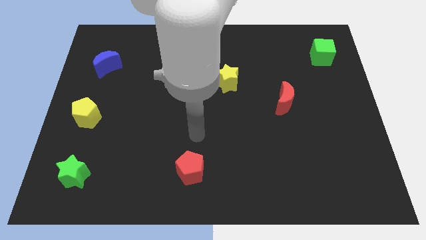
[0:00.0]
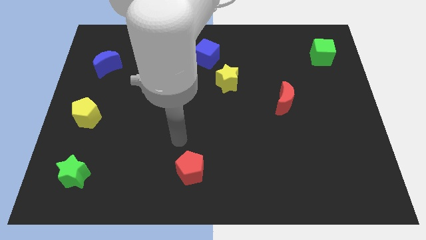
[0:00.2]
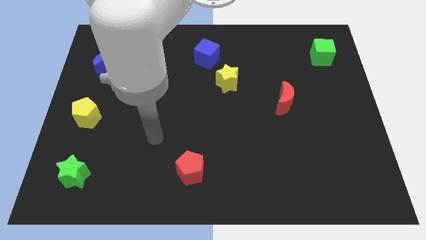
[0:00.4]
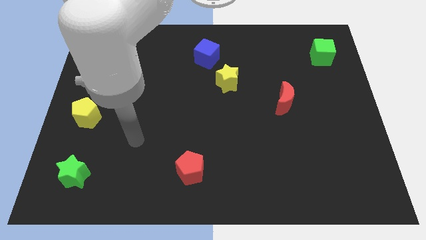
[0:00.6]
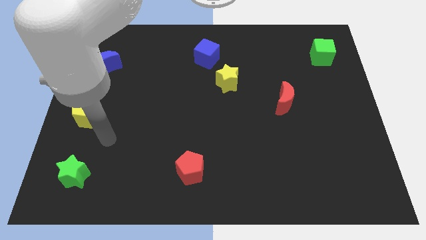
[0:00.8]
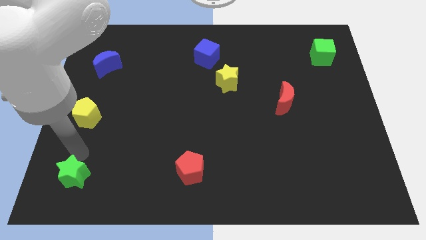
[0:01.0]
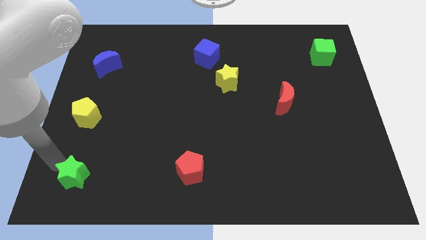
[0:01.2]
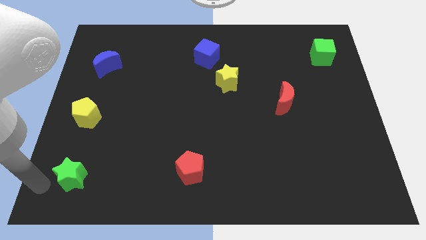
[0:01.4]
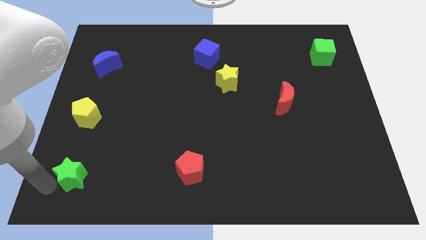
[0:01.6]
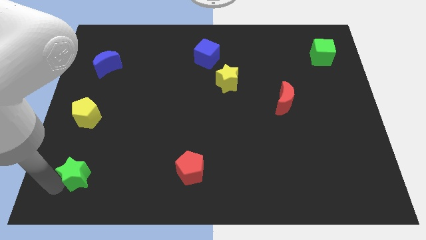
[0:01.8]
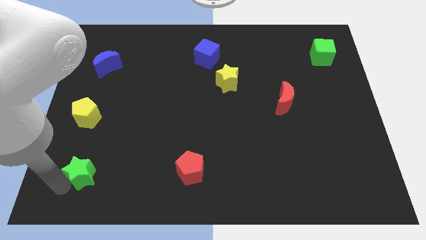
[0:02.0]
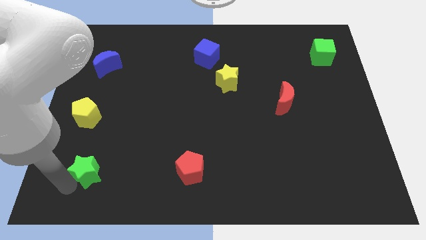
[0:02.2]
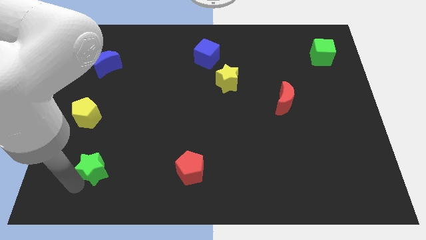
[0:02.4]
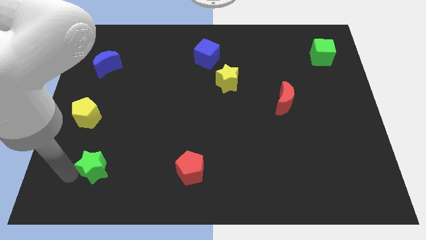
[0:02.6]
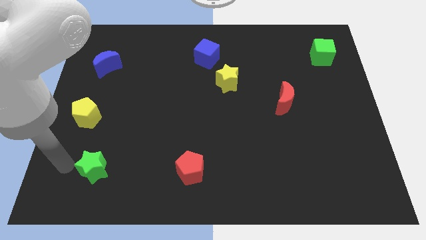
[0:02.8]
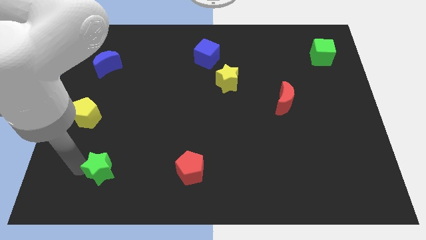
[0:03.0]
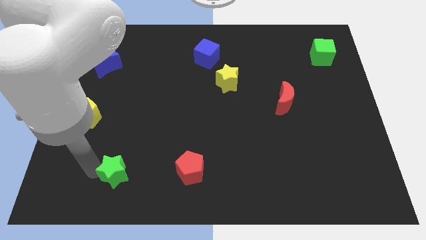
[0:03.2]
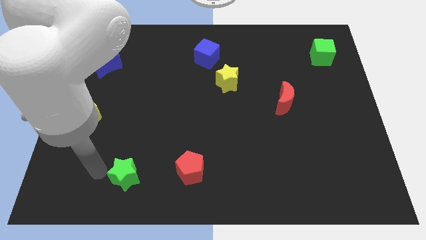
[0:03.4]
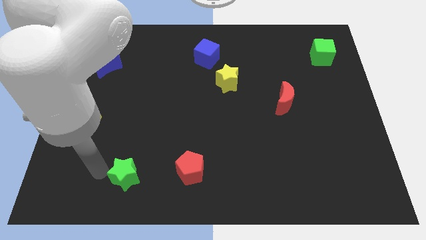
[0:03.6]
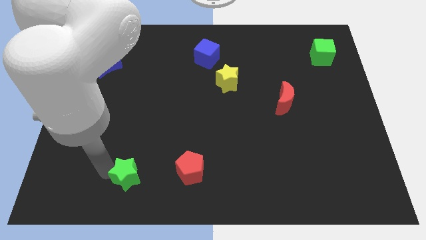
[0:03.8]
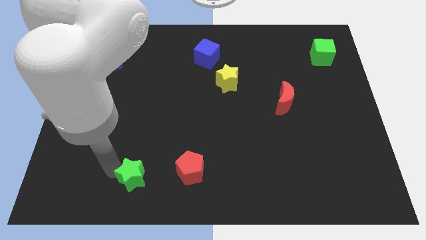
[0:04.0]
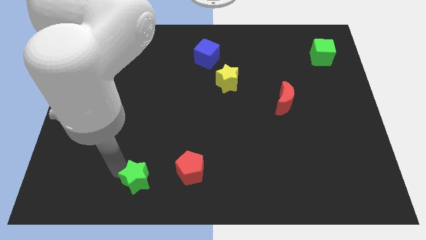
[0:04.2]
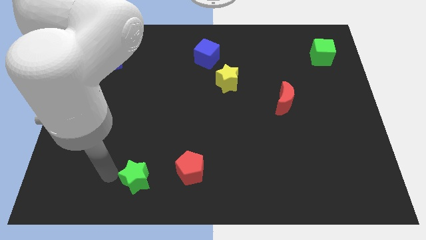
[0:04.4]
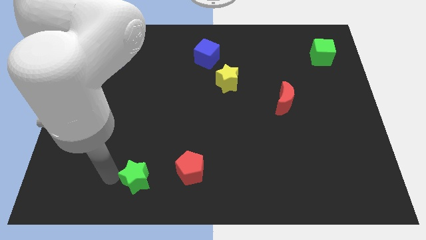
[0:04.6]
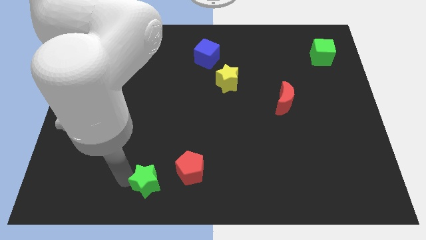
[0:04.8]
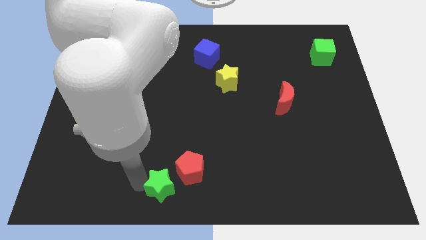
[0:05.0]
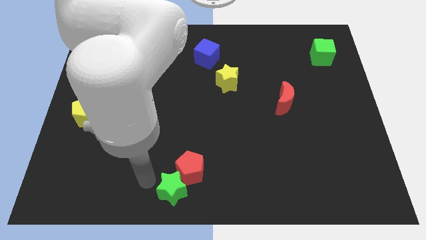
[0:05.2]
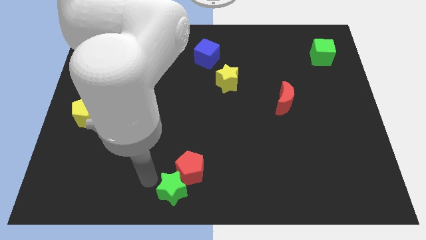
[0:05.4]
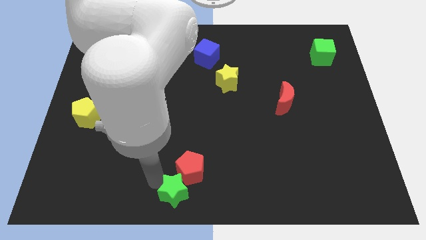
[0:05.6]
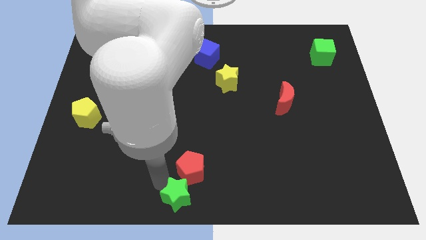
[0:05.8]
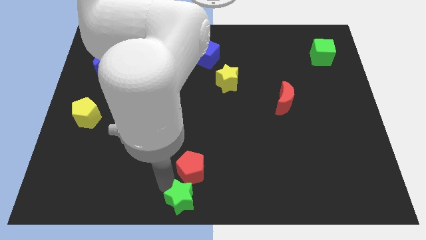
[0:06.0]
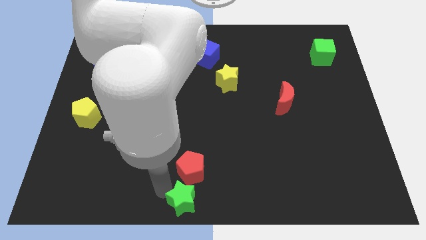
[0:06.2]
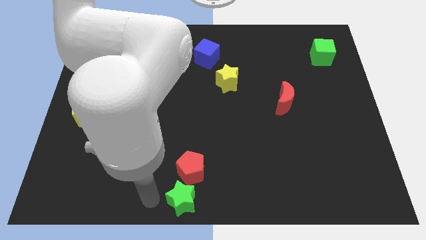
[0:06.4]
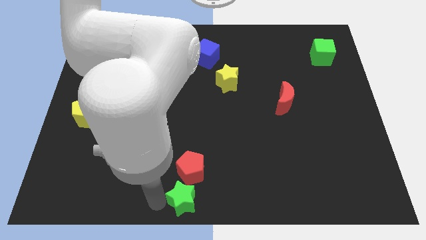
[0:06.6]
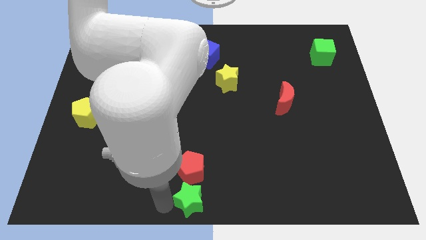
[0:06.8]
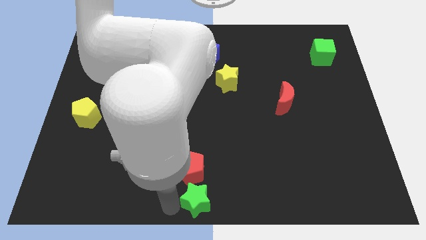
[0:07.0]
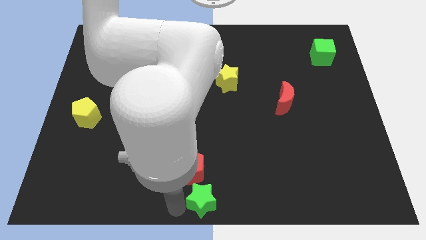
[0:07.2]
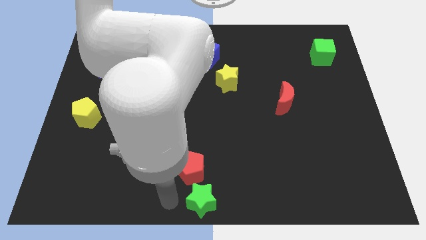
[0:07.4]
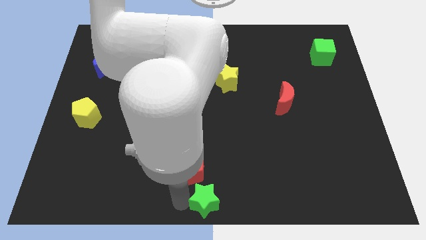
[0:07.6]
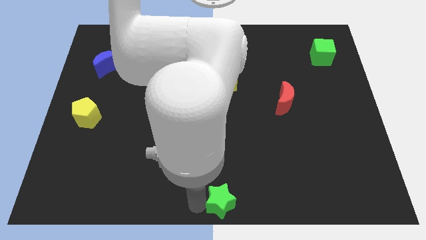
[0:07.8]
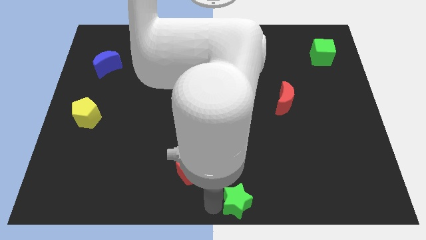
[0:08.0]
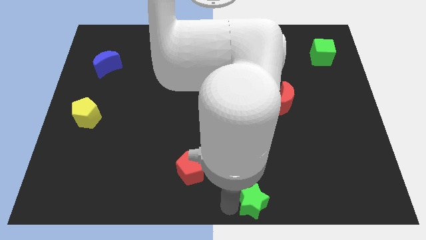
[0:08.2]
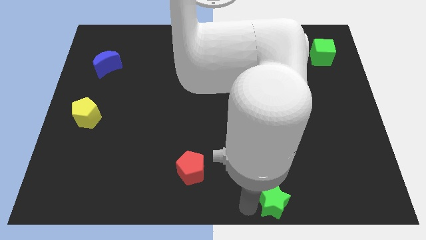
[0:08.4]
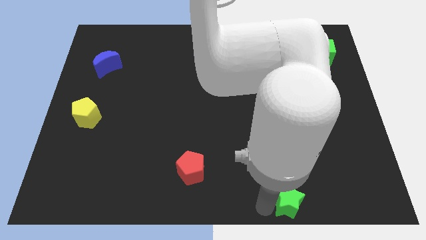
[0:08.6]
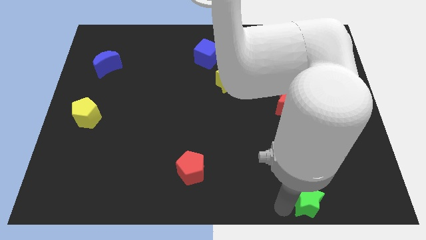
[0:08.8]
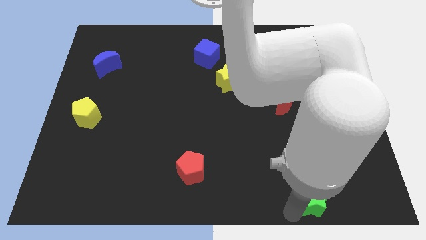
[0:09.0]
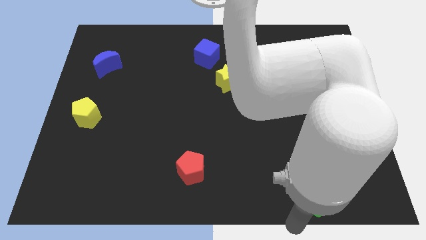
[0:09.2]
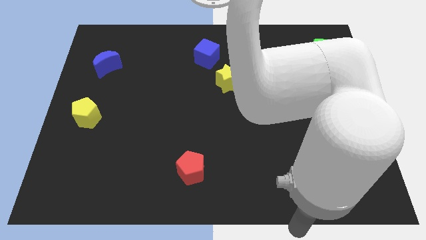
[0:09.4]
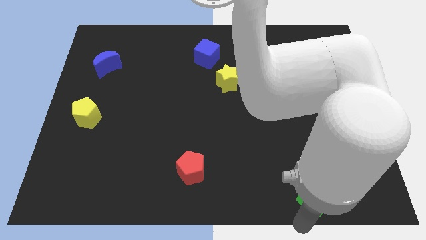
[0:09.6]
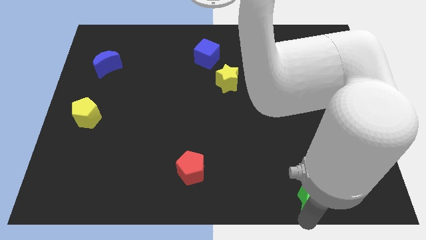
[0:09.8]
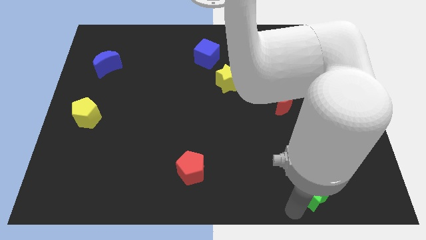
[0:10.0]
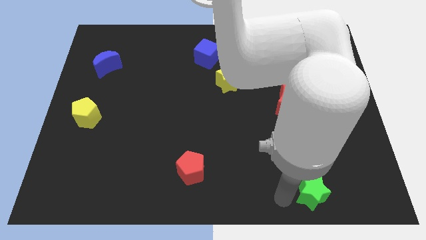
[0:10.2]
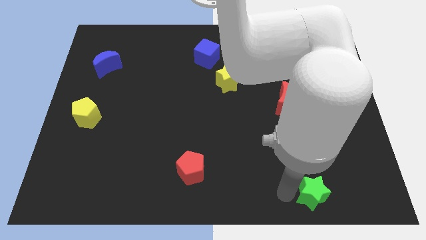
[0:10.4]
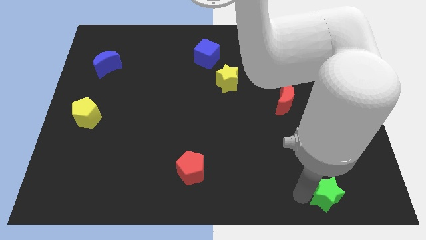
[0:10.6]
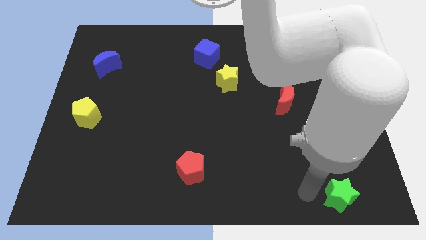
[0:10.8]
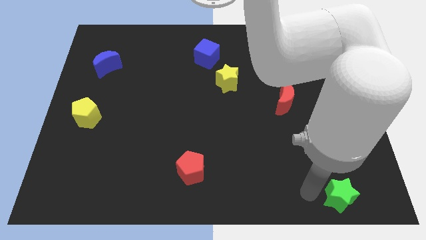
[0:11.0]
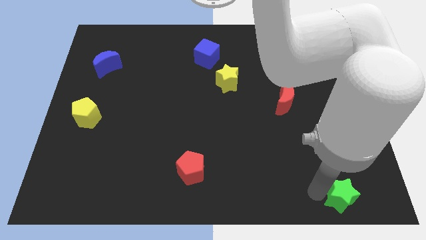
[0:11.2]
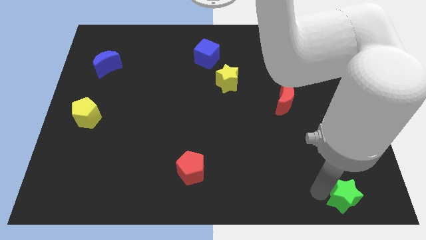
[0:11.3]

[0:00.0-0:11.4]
push the green star to the bottom right

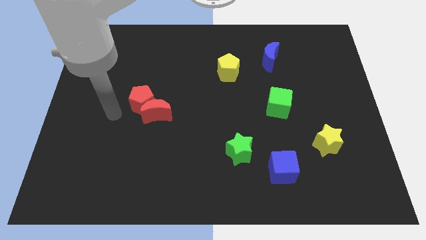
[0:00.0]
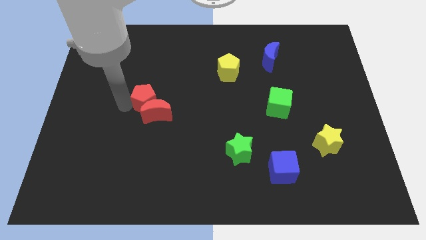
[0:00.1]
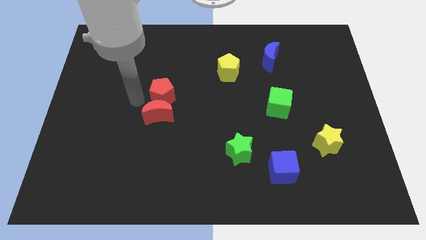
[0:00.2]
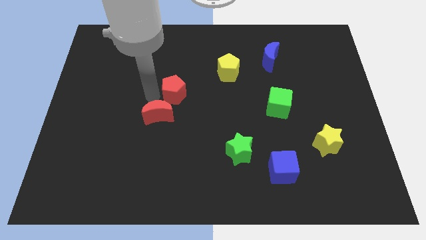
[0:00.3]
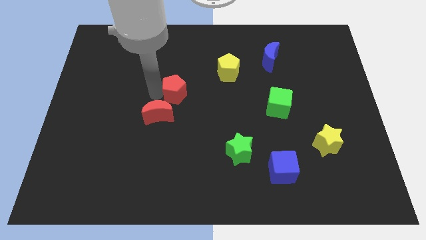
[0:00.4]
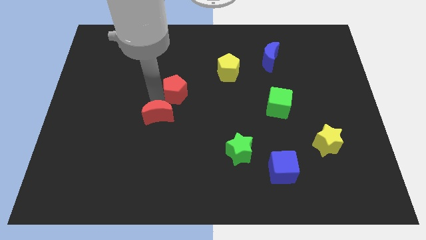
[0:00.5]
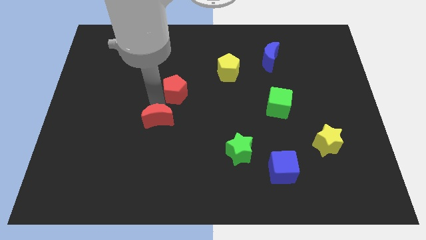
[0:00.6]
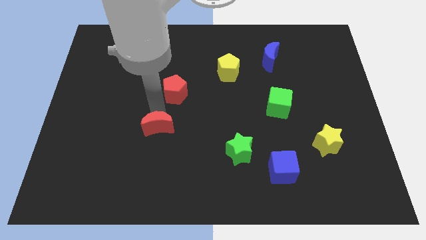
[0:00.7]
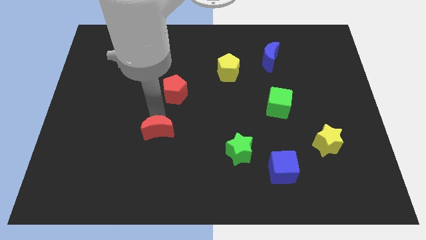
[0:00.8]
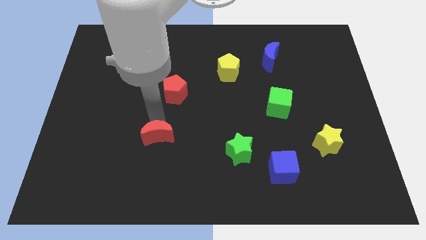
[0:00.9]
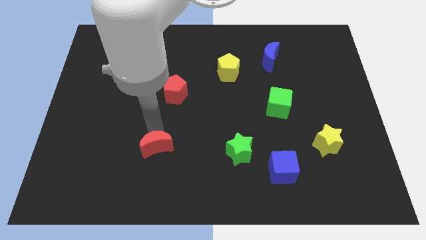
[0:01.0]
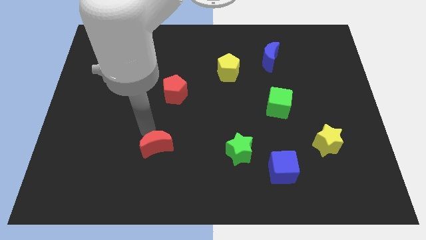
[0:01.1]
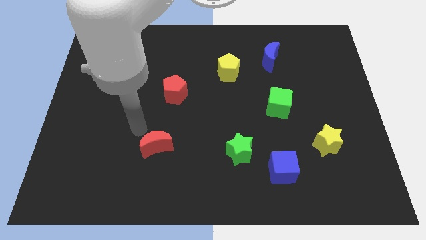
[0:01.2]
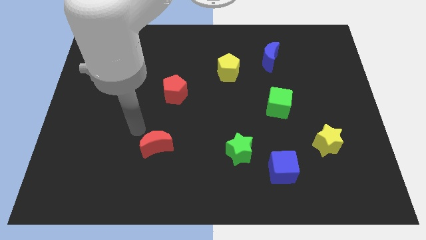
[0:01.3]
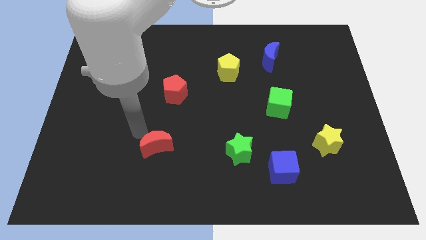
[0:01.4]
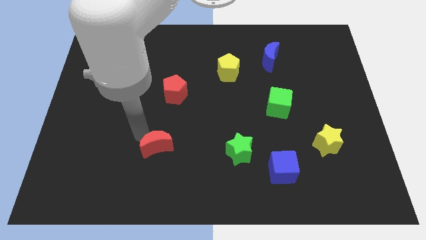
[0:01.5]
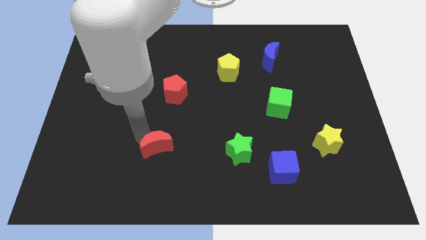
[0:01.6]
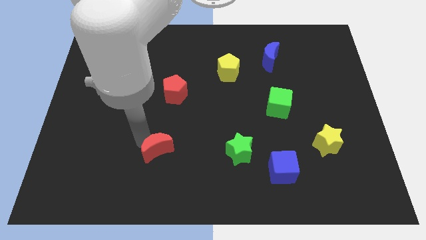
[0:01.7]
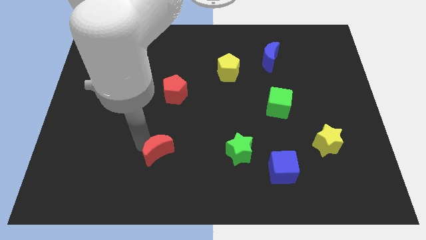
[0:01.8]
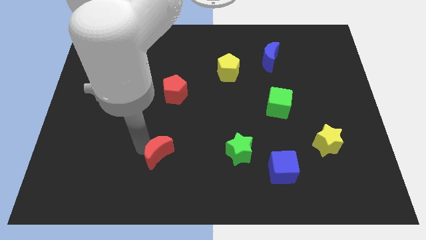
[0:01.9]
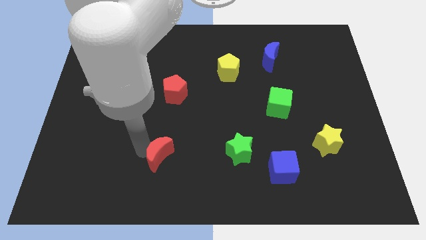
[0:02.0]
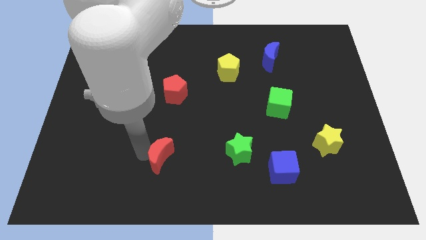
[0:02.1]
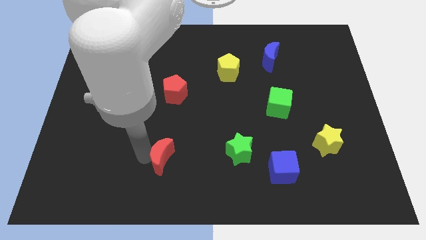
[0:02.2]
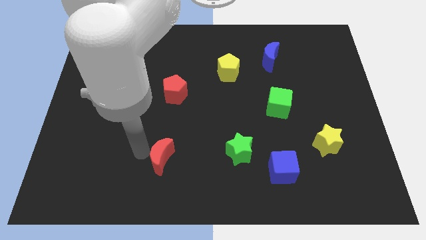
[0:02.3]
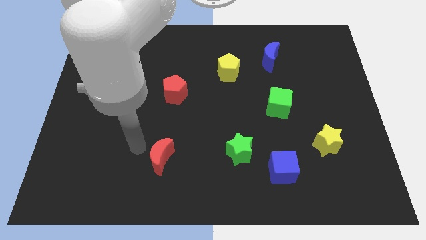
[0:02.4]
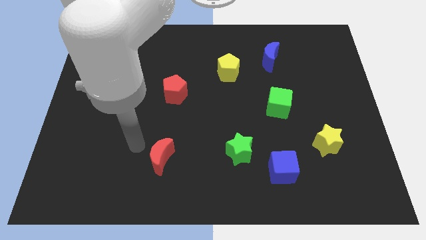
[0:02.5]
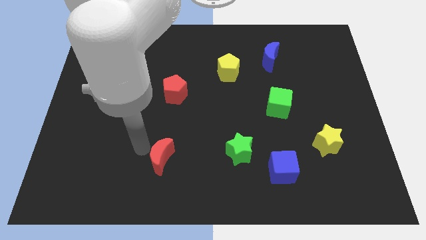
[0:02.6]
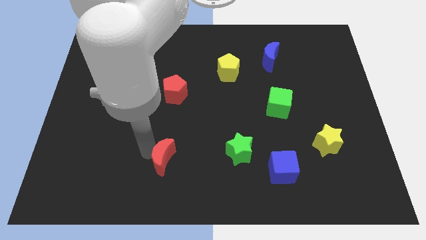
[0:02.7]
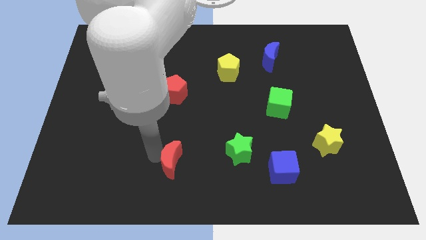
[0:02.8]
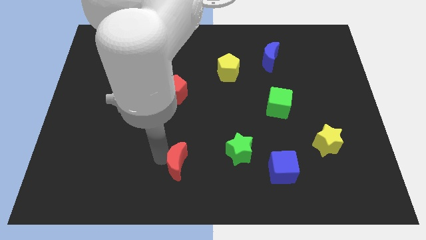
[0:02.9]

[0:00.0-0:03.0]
slide the red moon to the bottom side
